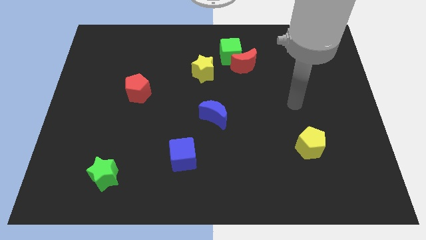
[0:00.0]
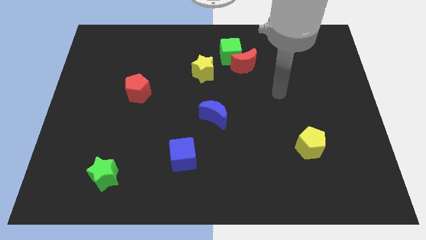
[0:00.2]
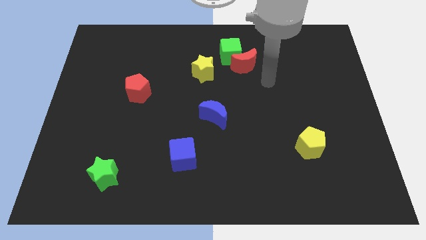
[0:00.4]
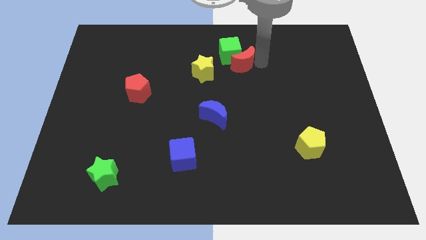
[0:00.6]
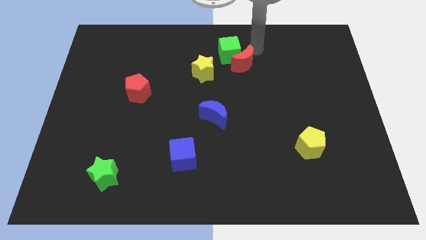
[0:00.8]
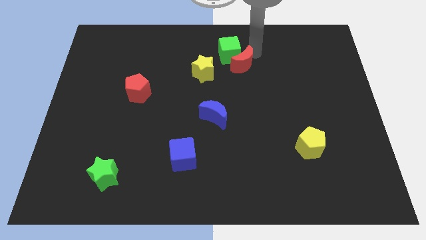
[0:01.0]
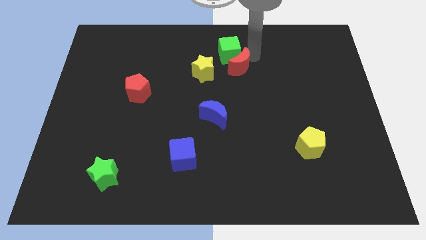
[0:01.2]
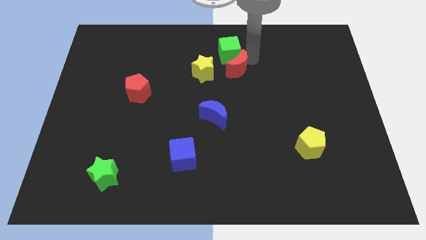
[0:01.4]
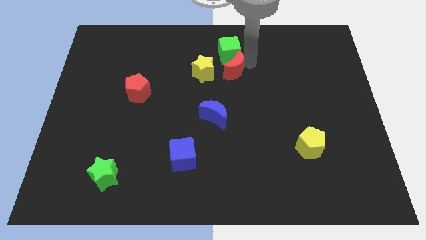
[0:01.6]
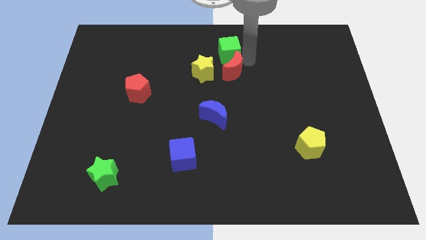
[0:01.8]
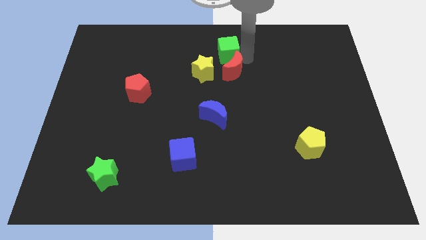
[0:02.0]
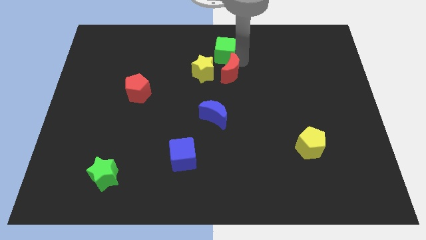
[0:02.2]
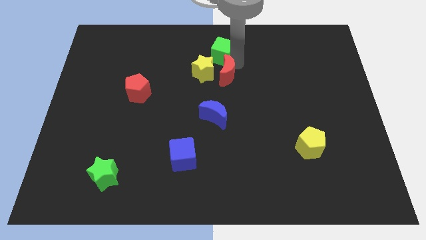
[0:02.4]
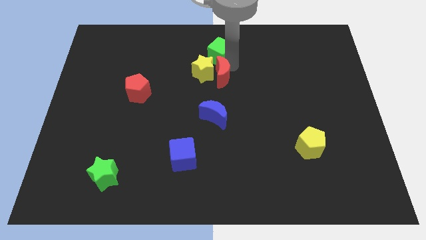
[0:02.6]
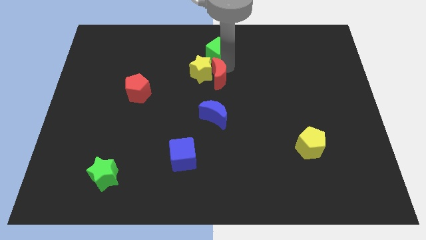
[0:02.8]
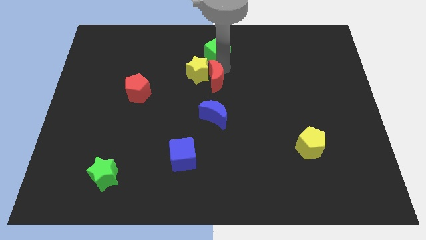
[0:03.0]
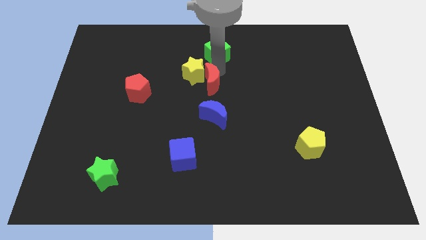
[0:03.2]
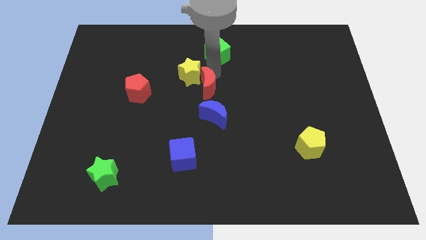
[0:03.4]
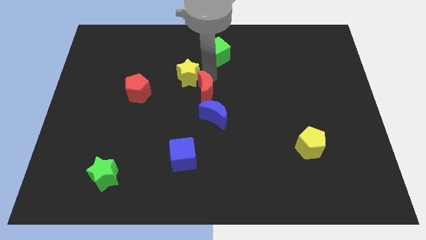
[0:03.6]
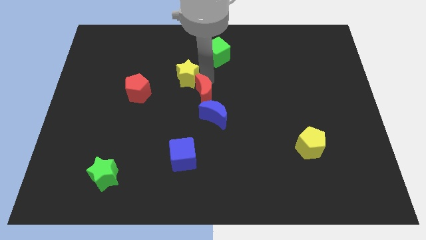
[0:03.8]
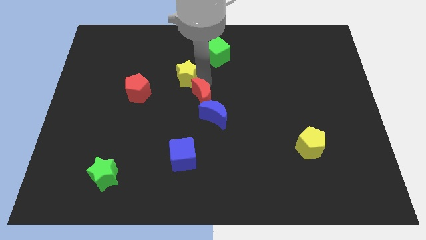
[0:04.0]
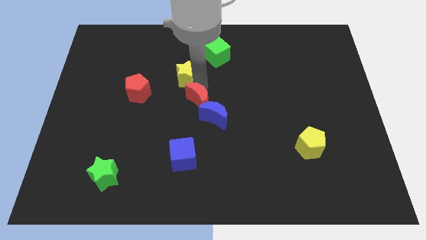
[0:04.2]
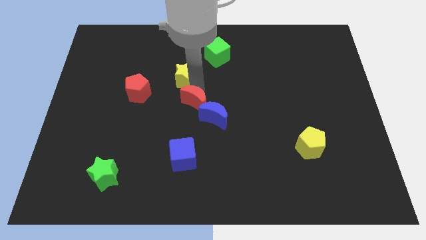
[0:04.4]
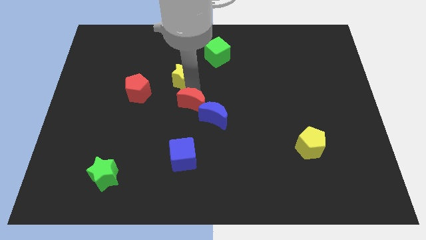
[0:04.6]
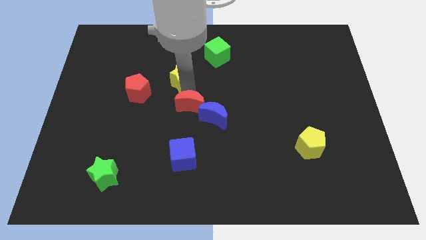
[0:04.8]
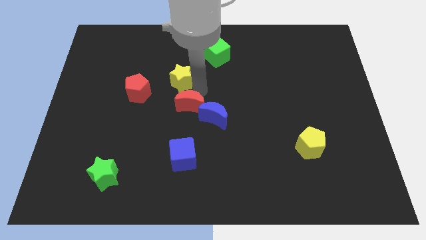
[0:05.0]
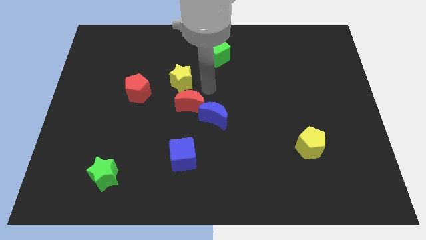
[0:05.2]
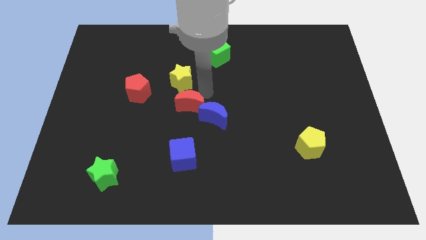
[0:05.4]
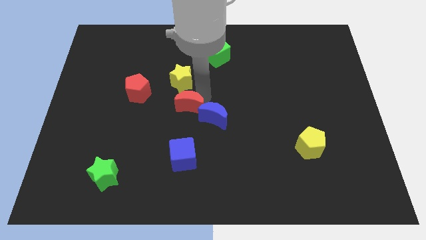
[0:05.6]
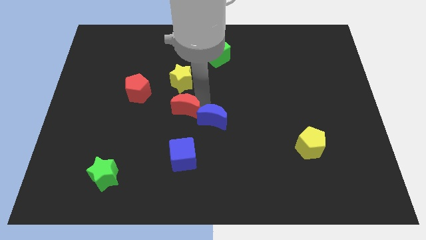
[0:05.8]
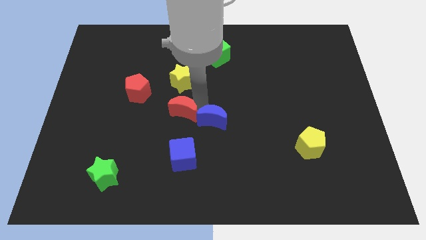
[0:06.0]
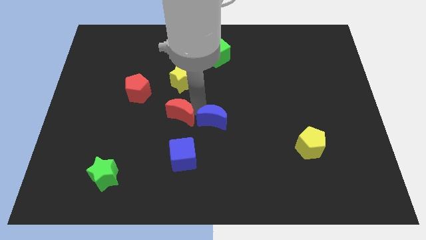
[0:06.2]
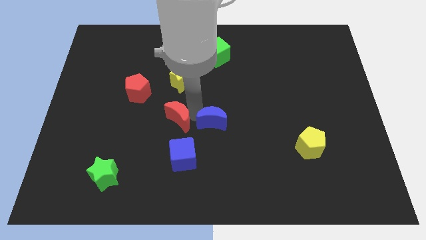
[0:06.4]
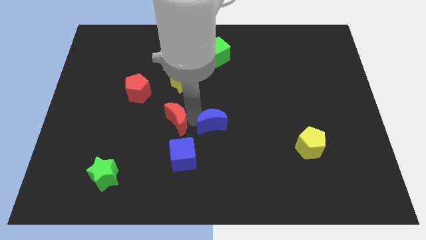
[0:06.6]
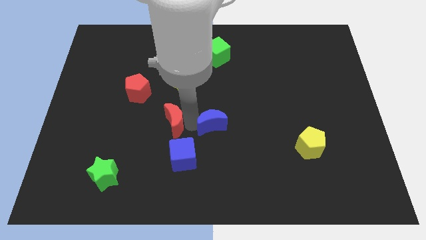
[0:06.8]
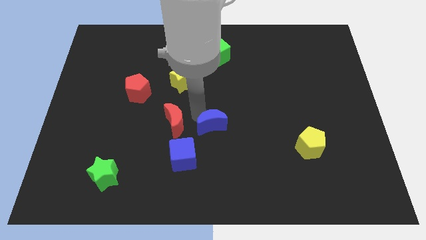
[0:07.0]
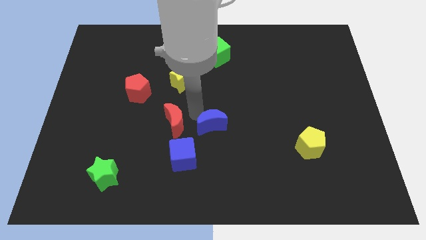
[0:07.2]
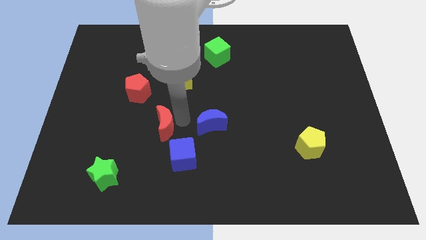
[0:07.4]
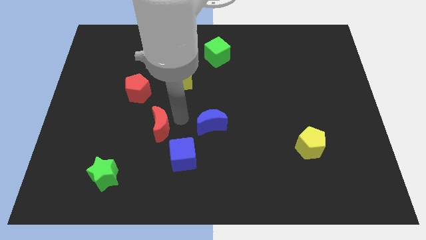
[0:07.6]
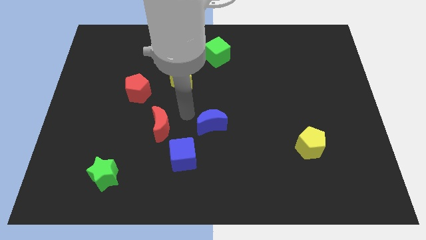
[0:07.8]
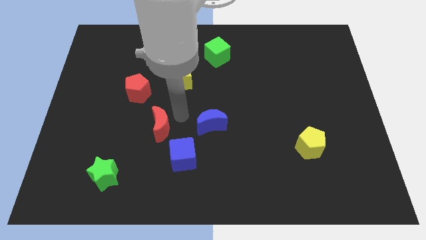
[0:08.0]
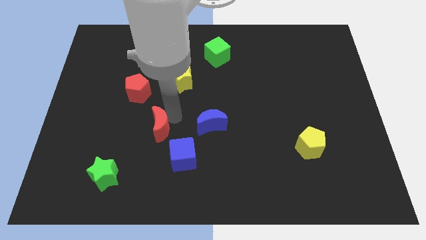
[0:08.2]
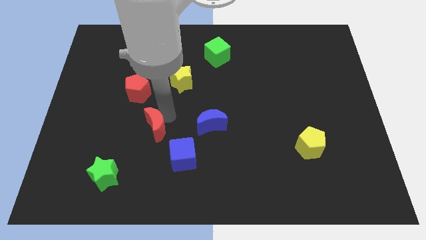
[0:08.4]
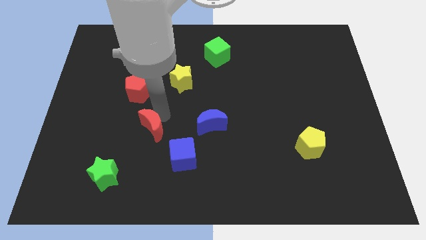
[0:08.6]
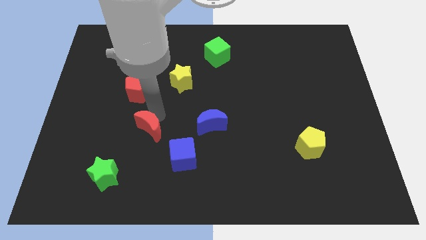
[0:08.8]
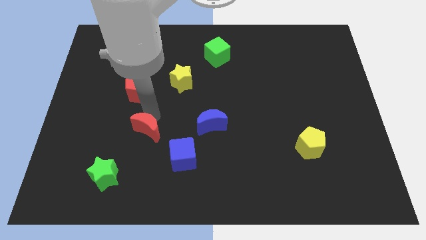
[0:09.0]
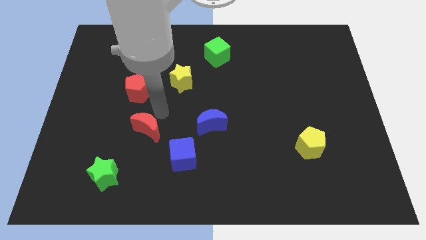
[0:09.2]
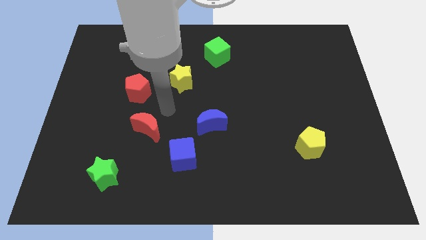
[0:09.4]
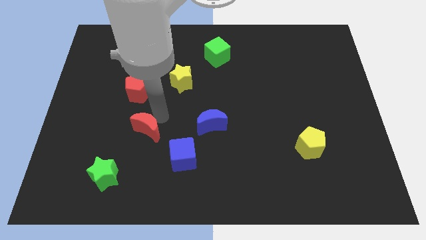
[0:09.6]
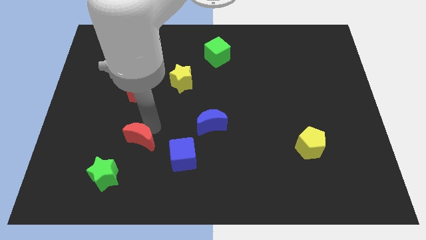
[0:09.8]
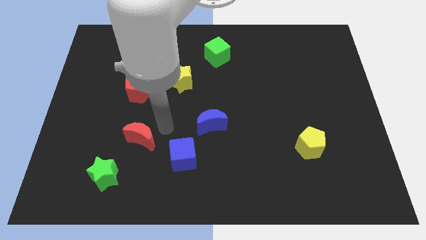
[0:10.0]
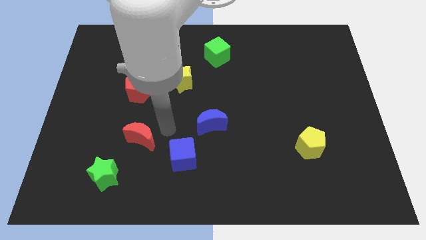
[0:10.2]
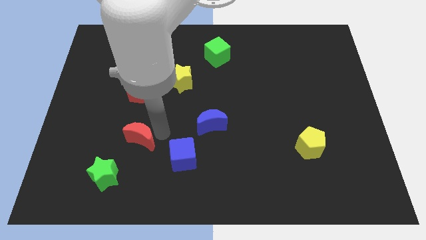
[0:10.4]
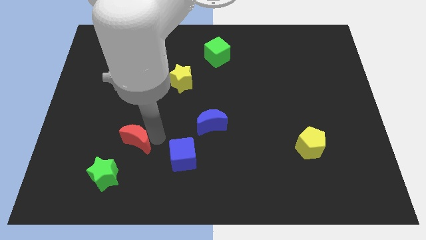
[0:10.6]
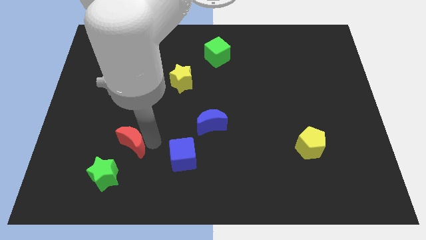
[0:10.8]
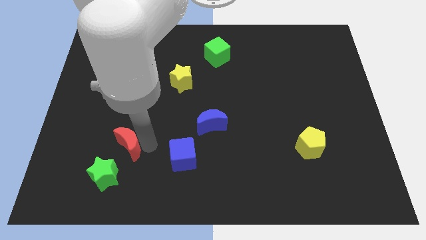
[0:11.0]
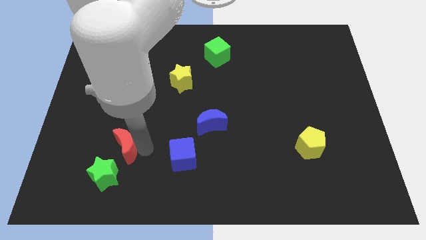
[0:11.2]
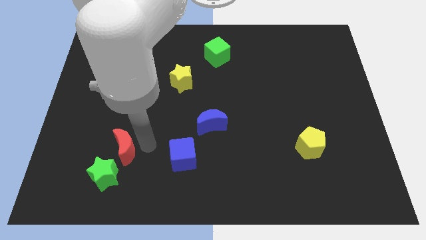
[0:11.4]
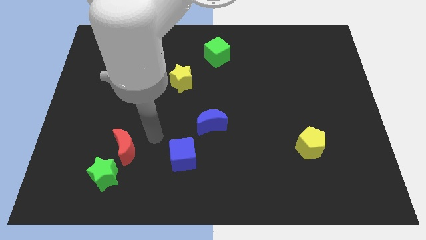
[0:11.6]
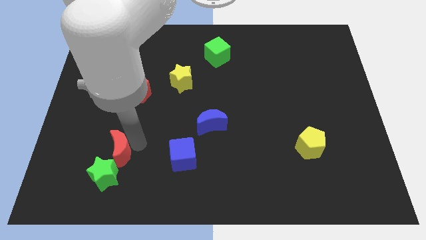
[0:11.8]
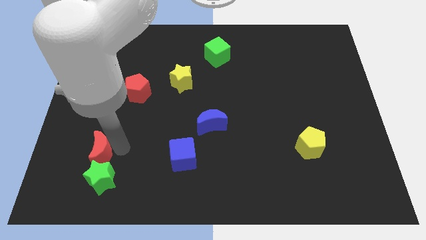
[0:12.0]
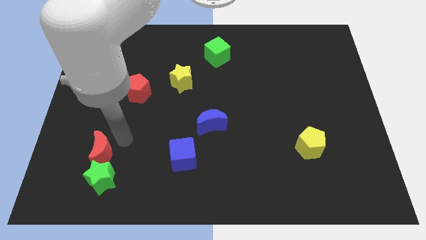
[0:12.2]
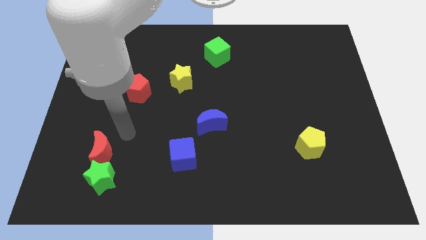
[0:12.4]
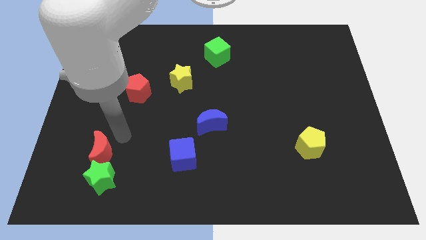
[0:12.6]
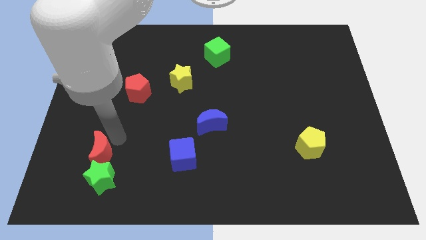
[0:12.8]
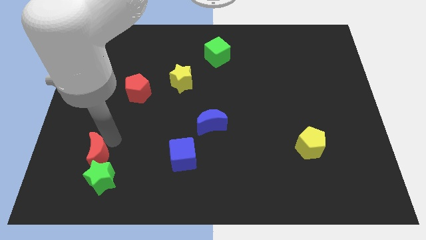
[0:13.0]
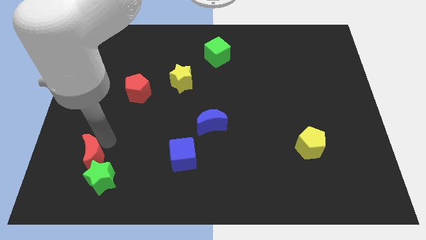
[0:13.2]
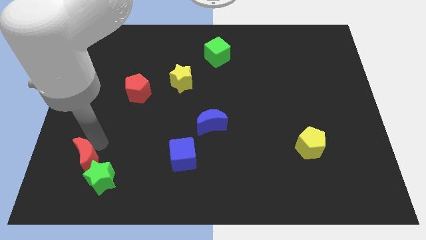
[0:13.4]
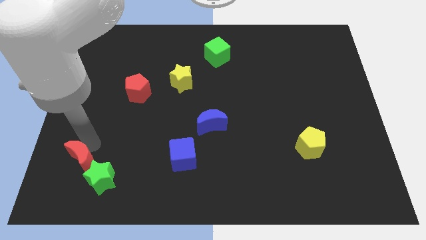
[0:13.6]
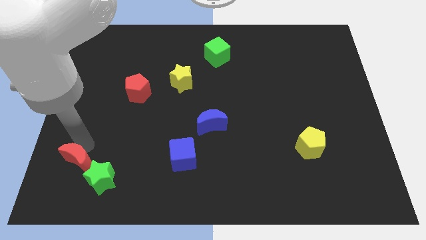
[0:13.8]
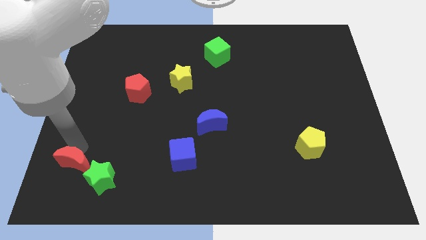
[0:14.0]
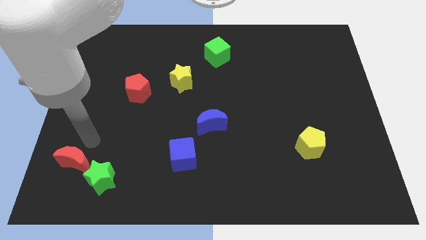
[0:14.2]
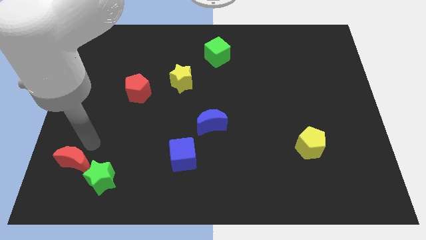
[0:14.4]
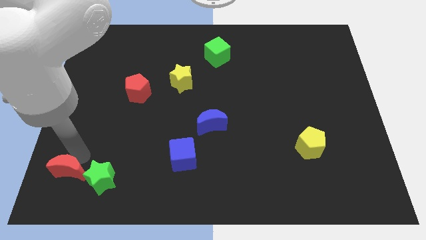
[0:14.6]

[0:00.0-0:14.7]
slide the red moon to the bottom left

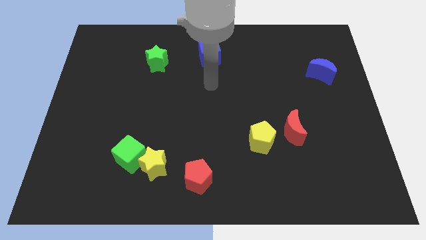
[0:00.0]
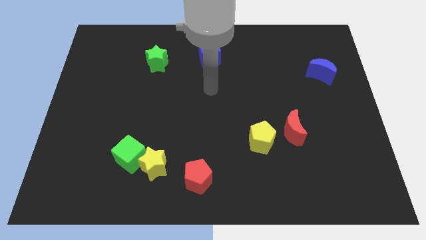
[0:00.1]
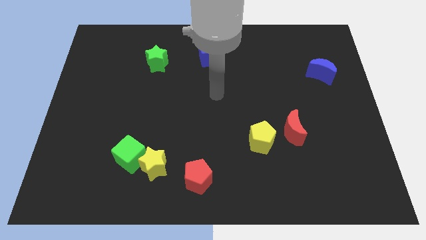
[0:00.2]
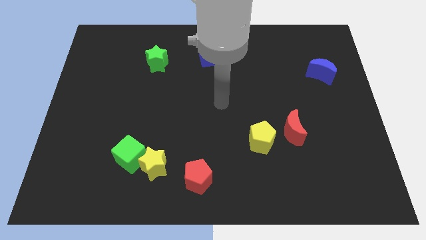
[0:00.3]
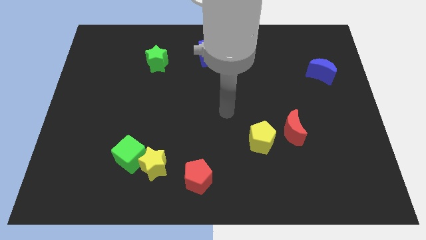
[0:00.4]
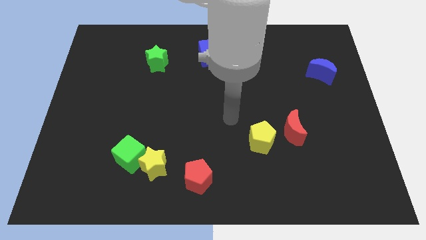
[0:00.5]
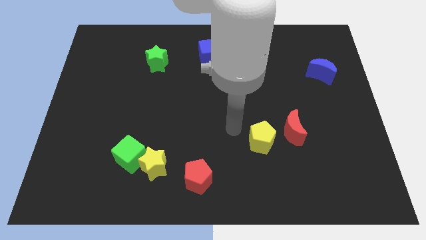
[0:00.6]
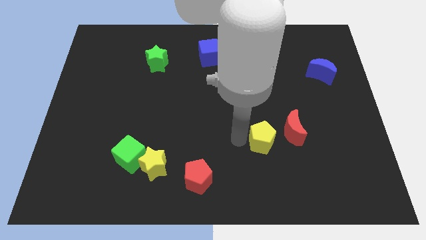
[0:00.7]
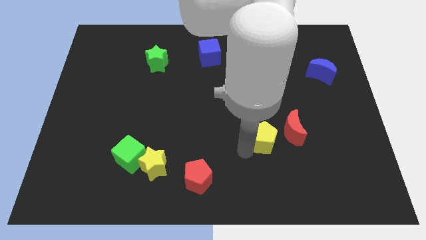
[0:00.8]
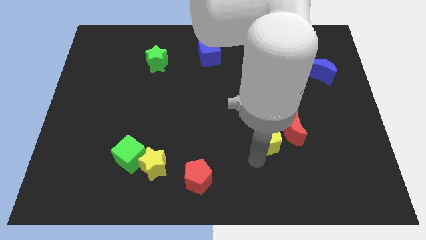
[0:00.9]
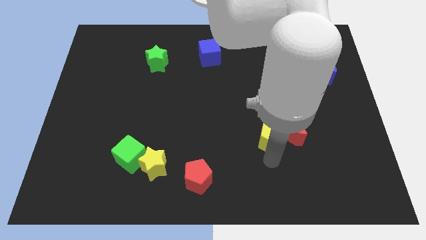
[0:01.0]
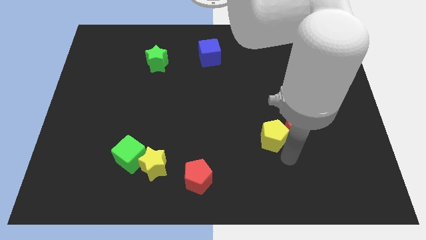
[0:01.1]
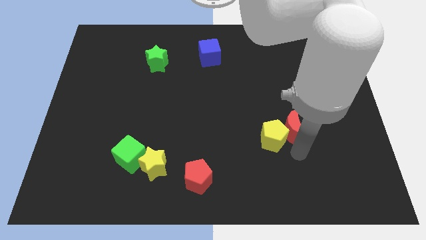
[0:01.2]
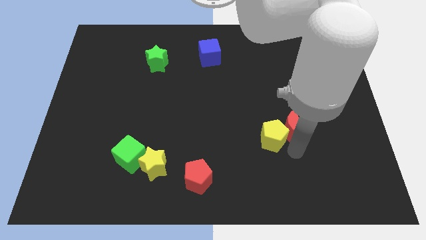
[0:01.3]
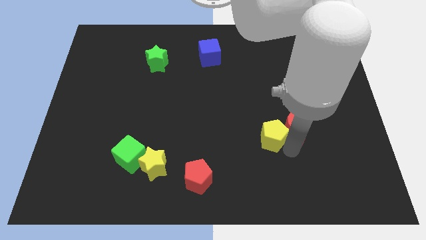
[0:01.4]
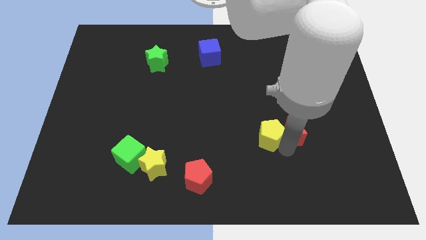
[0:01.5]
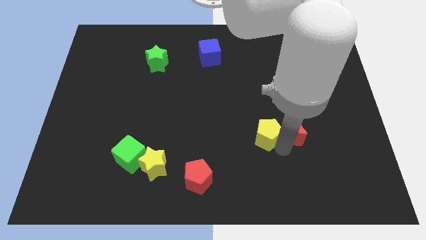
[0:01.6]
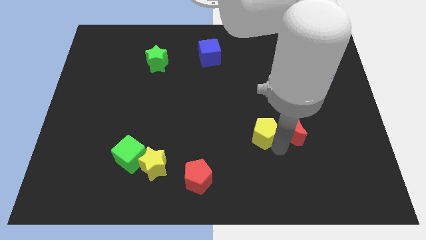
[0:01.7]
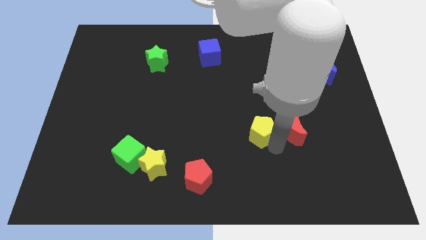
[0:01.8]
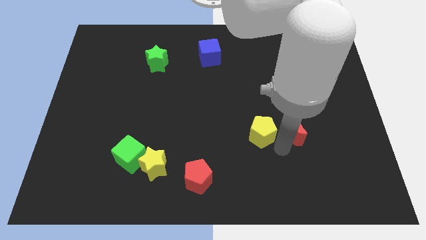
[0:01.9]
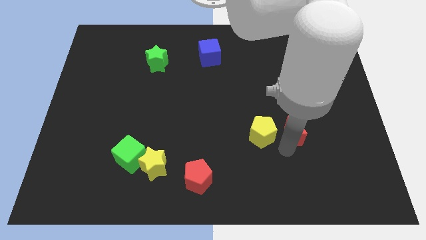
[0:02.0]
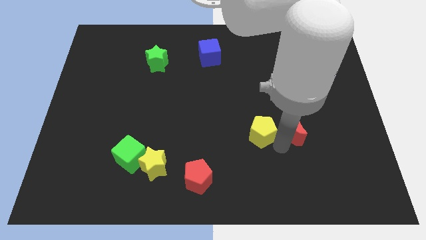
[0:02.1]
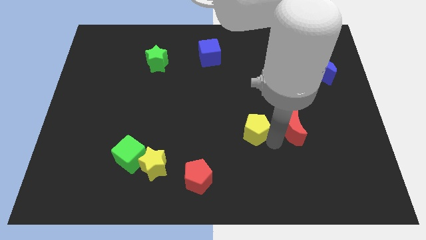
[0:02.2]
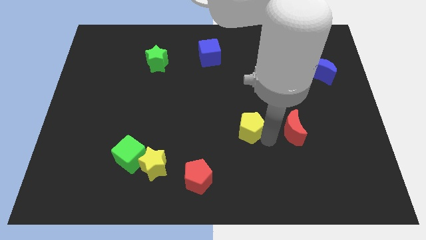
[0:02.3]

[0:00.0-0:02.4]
slide the yellow pentagon to the center
